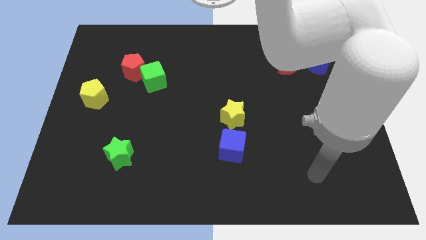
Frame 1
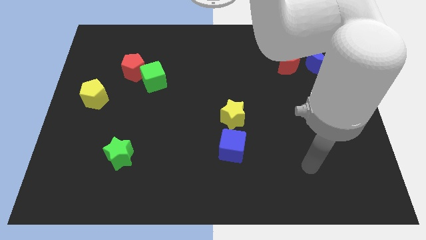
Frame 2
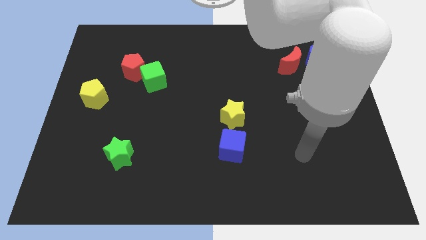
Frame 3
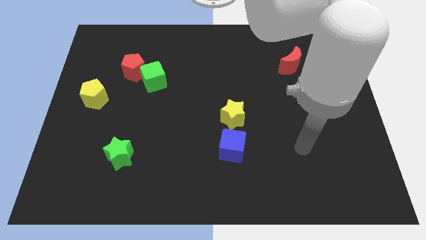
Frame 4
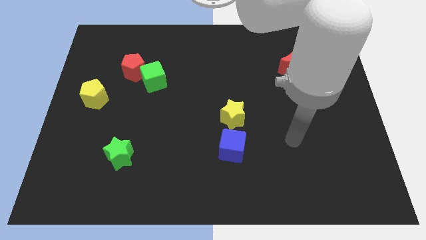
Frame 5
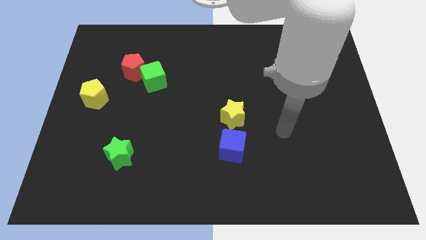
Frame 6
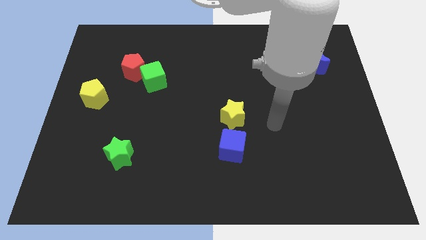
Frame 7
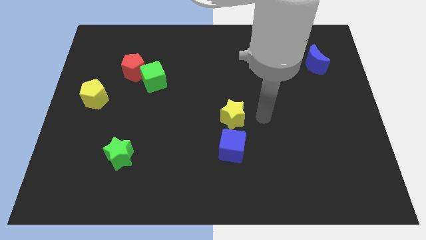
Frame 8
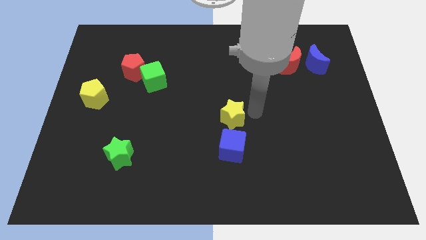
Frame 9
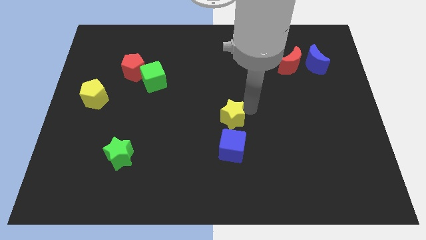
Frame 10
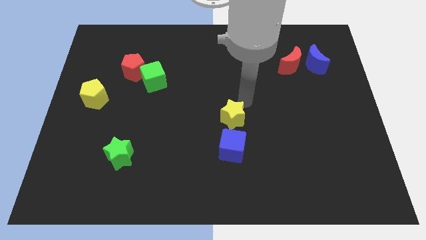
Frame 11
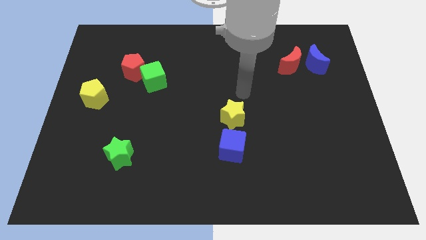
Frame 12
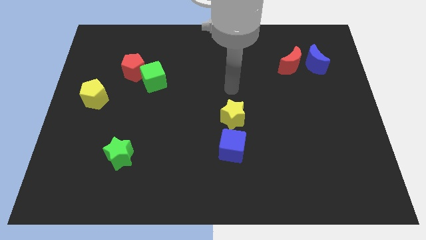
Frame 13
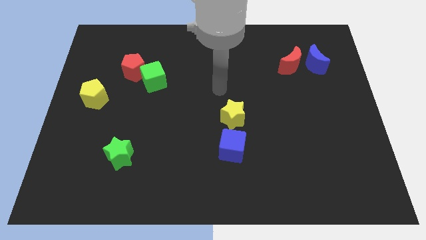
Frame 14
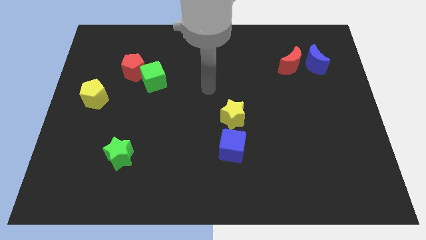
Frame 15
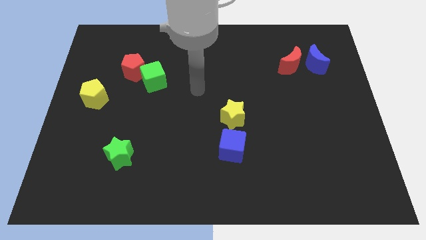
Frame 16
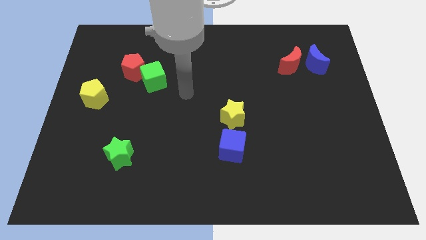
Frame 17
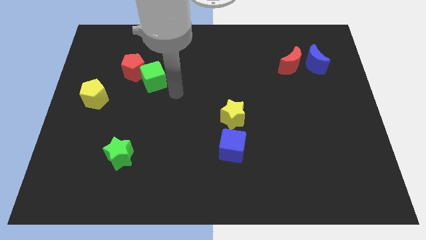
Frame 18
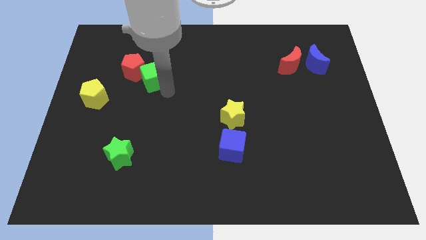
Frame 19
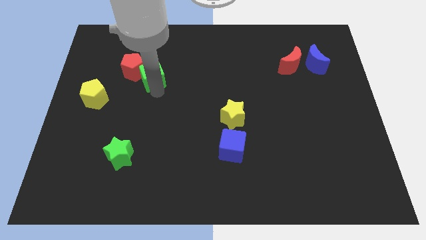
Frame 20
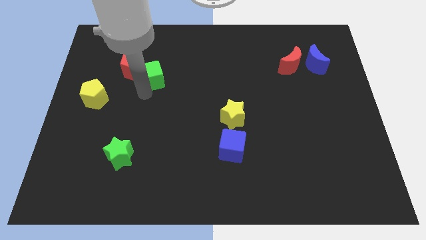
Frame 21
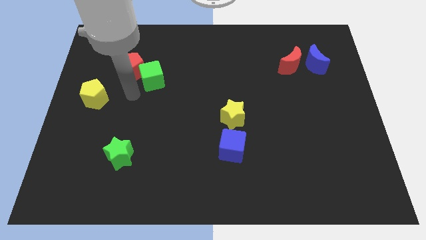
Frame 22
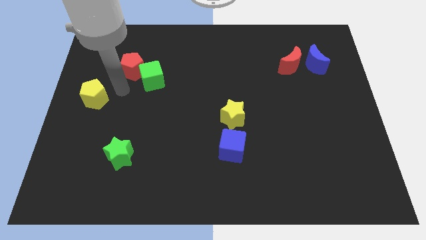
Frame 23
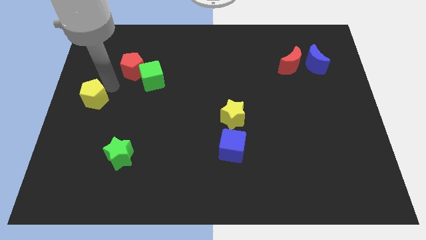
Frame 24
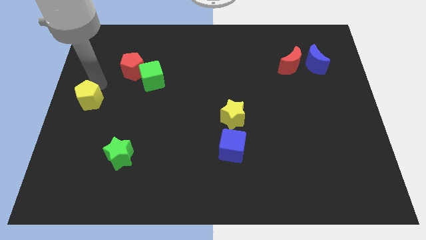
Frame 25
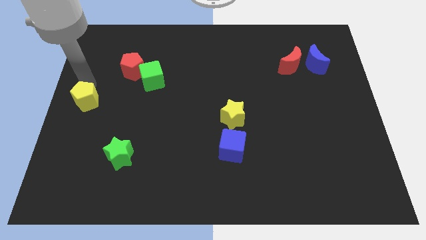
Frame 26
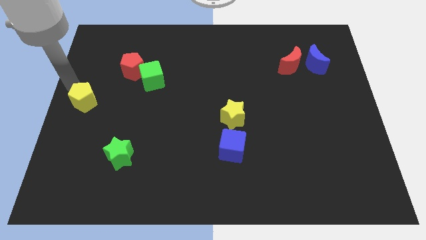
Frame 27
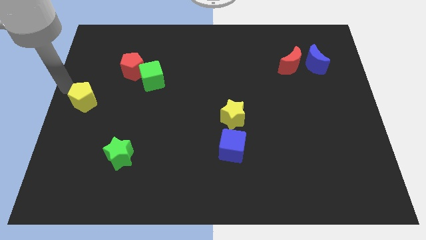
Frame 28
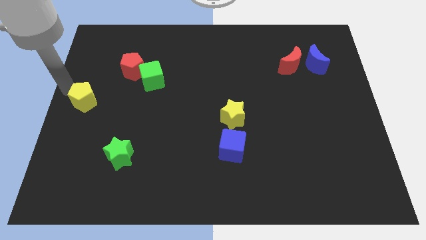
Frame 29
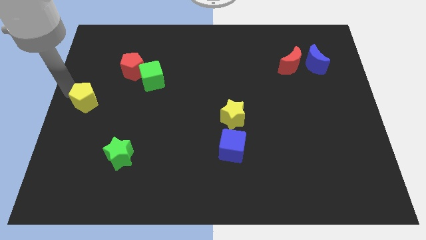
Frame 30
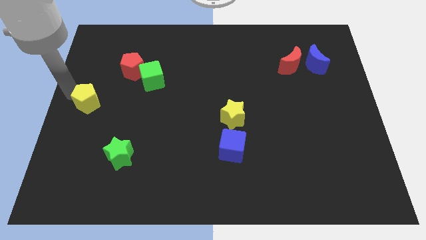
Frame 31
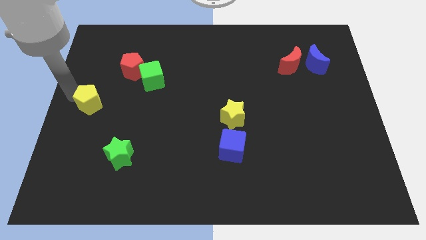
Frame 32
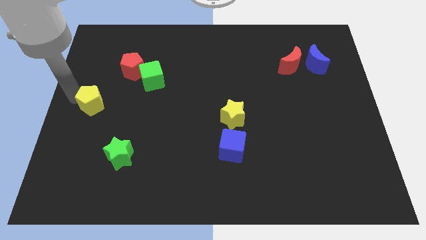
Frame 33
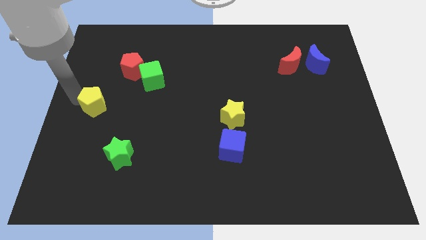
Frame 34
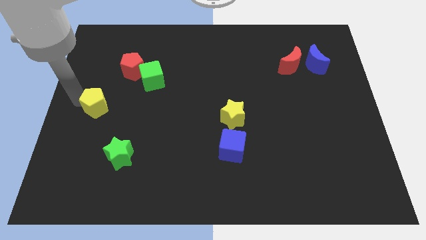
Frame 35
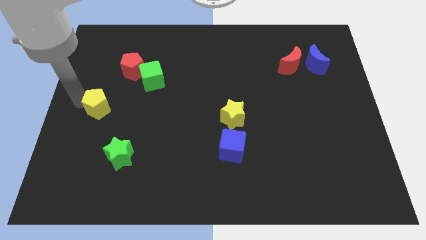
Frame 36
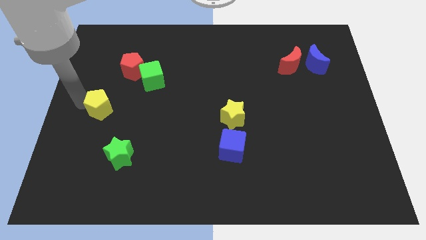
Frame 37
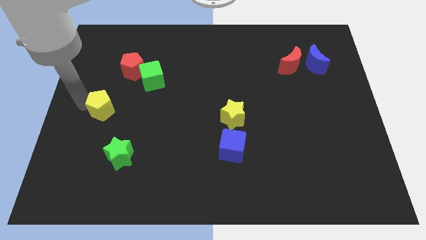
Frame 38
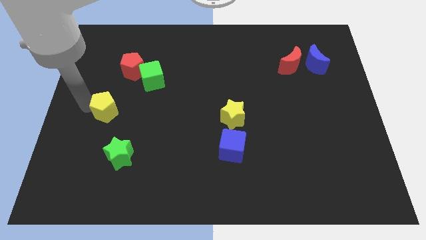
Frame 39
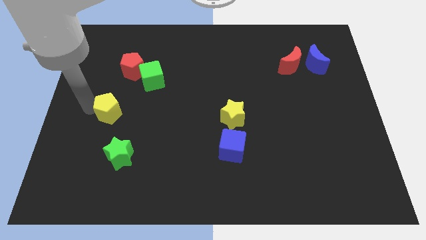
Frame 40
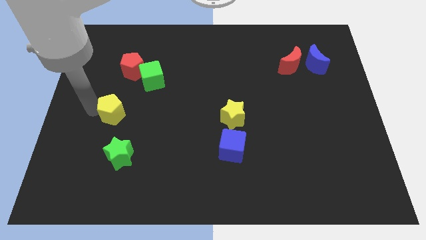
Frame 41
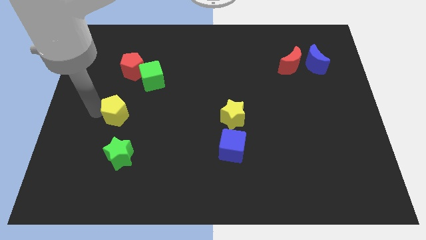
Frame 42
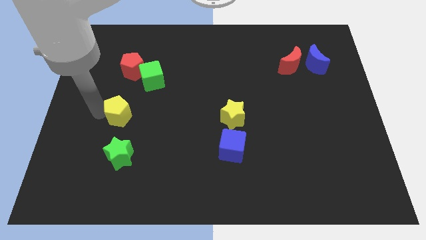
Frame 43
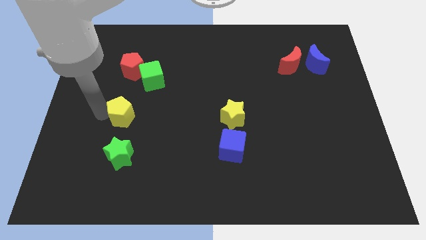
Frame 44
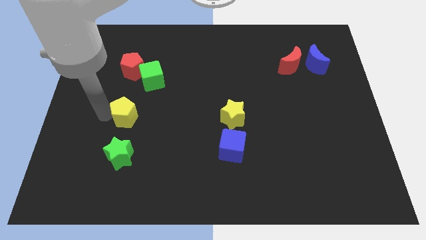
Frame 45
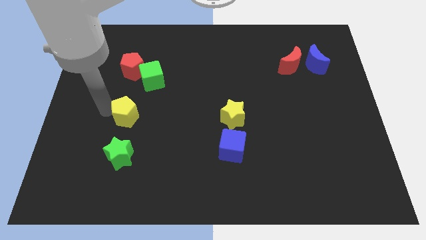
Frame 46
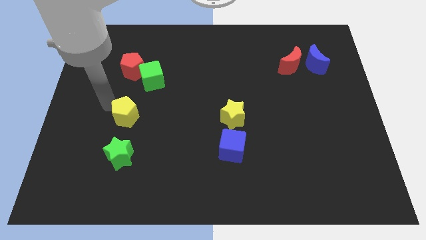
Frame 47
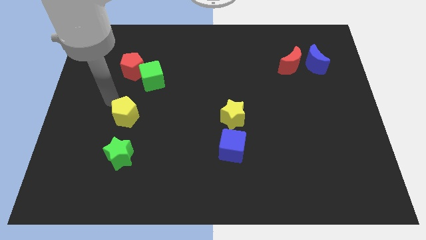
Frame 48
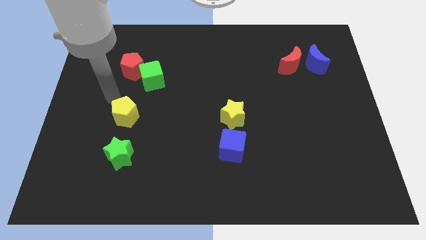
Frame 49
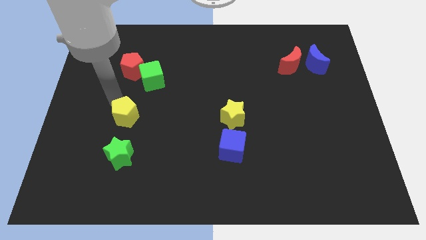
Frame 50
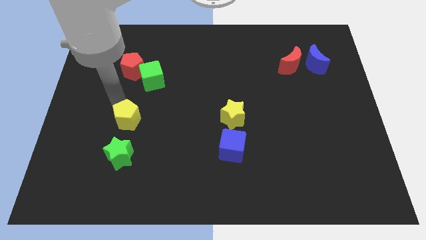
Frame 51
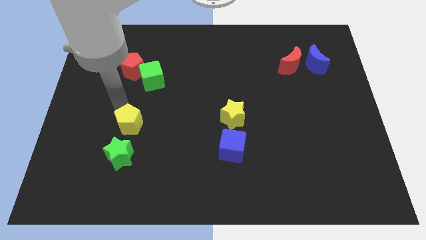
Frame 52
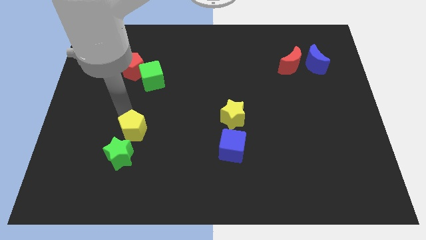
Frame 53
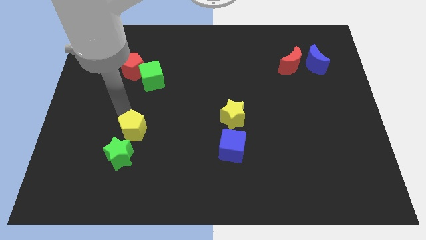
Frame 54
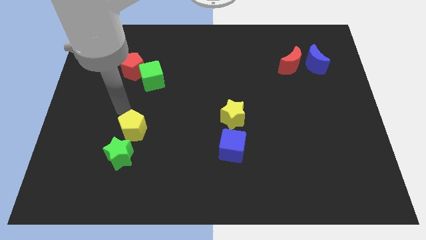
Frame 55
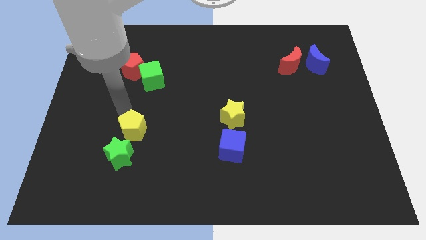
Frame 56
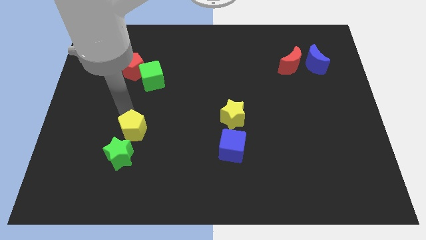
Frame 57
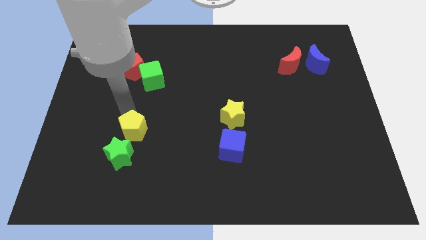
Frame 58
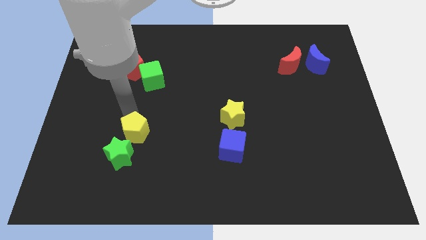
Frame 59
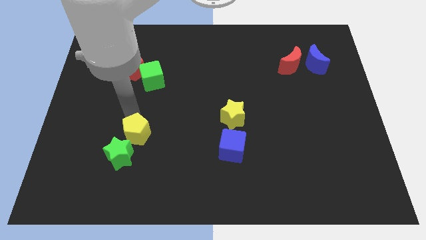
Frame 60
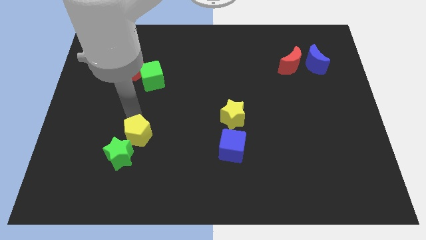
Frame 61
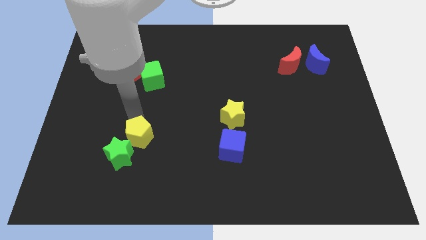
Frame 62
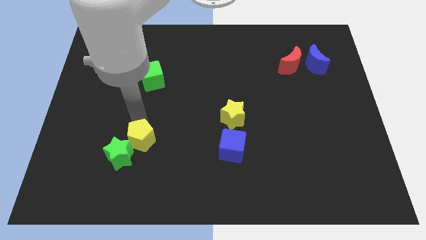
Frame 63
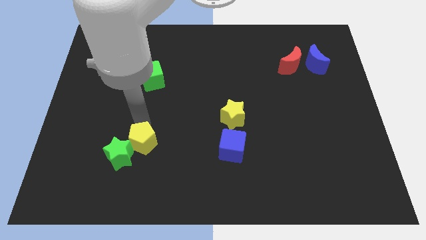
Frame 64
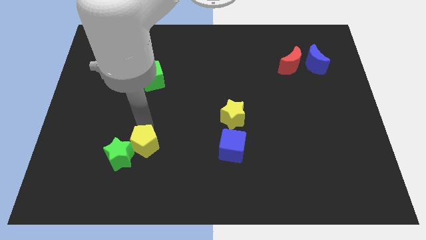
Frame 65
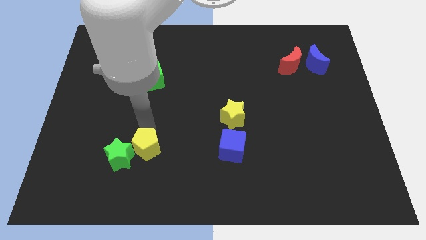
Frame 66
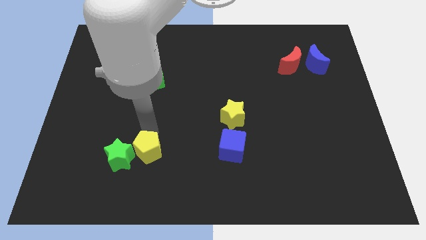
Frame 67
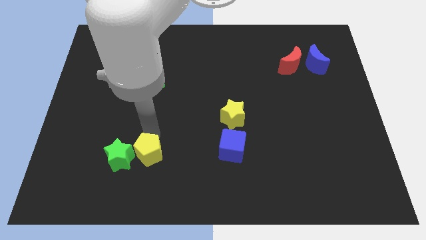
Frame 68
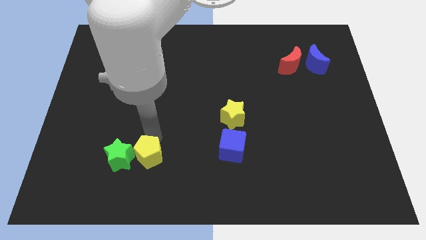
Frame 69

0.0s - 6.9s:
move the yellow pentagon diagonally down and to the right of the green star

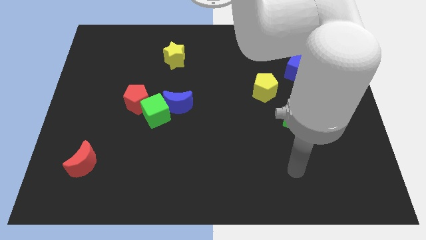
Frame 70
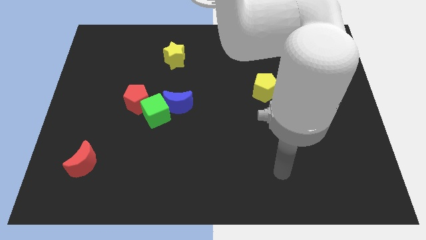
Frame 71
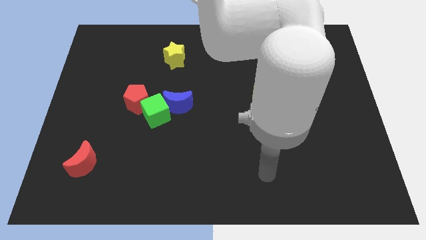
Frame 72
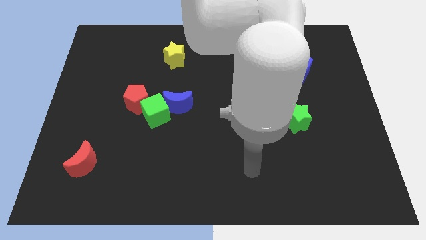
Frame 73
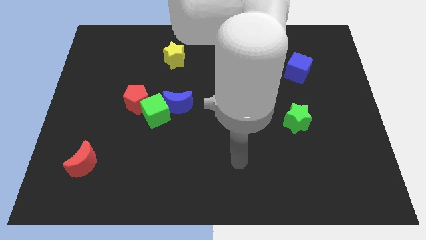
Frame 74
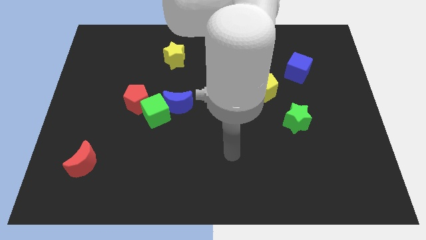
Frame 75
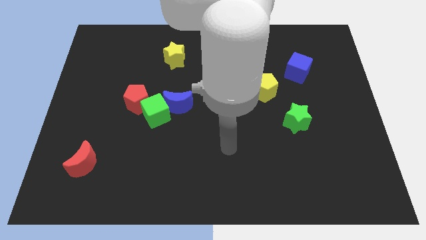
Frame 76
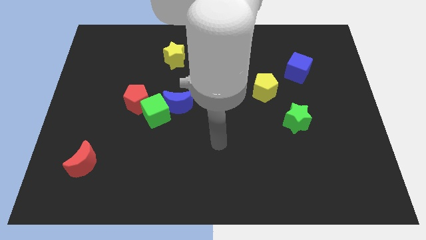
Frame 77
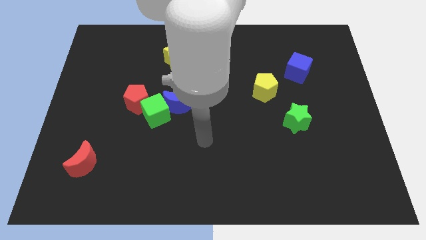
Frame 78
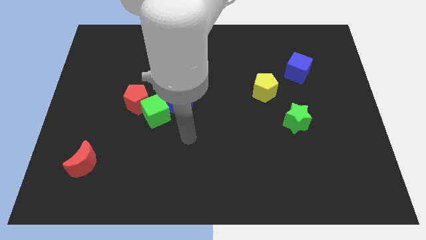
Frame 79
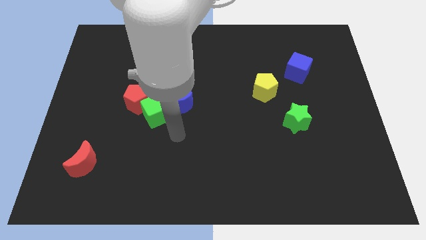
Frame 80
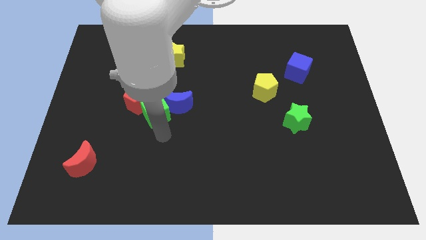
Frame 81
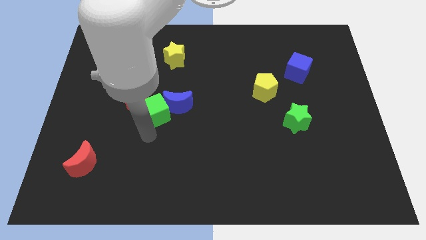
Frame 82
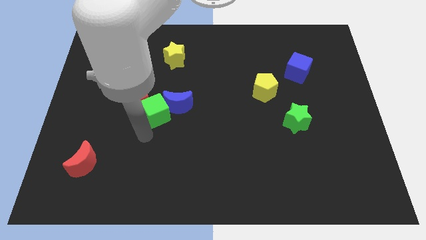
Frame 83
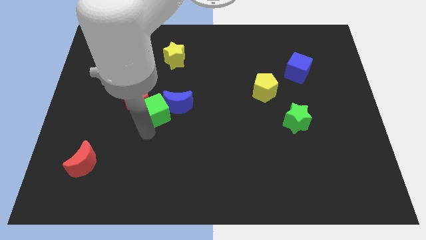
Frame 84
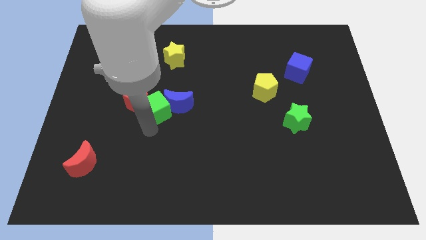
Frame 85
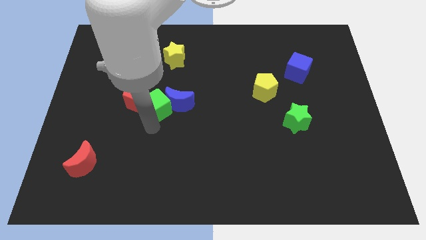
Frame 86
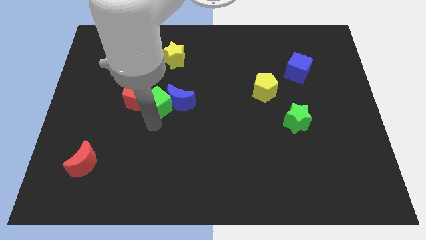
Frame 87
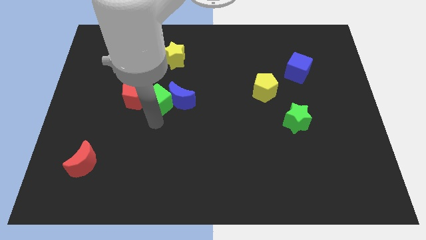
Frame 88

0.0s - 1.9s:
put the green cube to the bottom side of the yellow star
